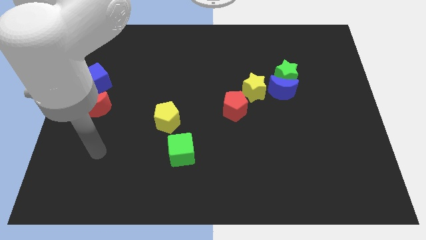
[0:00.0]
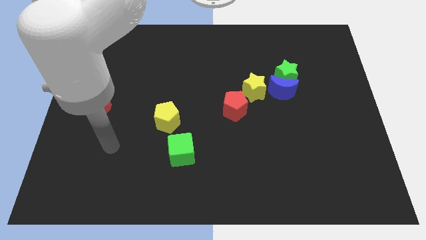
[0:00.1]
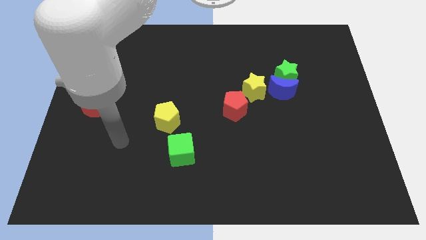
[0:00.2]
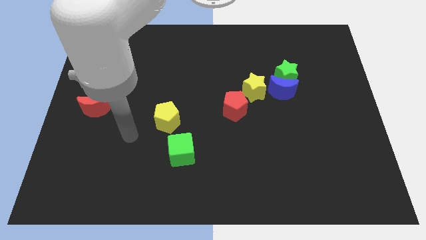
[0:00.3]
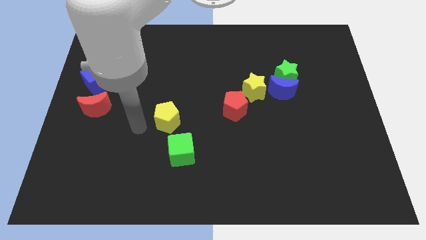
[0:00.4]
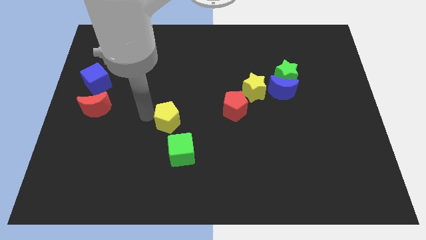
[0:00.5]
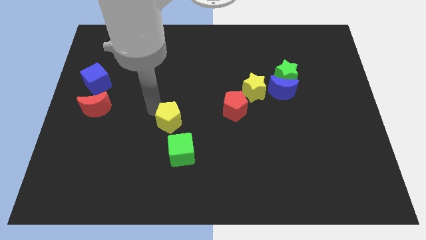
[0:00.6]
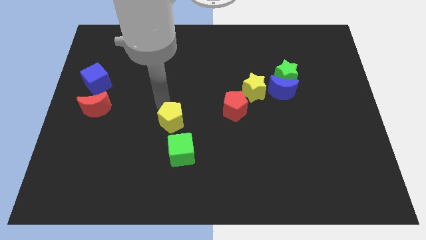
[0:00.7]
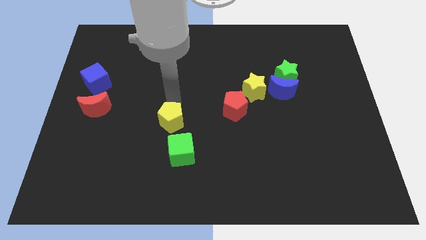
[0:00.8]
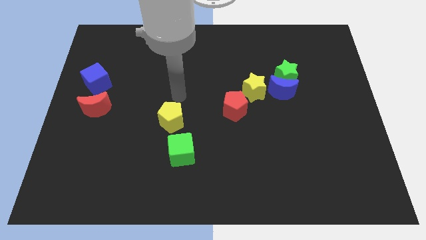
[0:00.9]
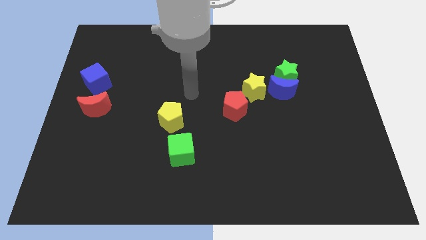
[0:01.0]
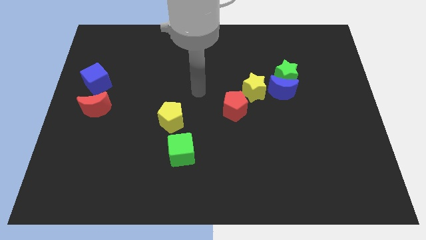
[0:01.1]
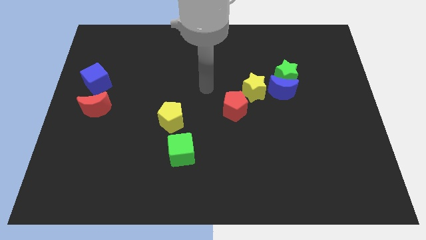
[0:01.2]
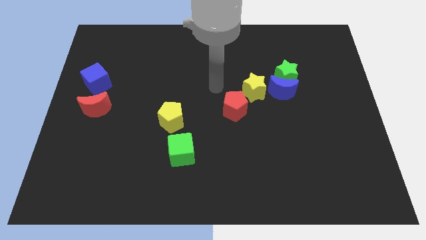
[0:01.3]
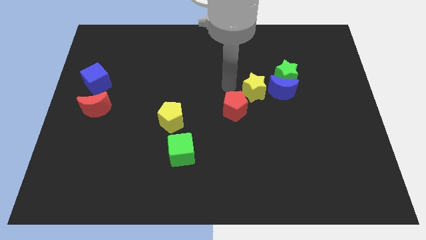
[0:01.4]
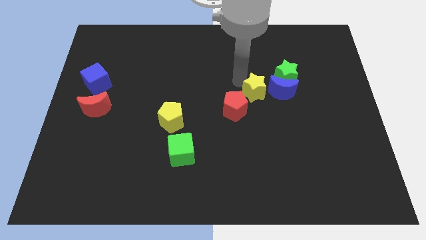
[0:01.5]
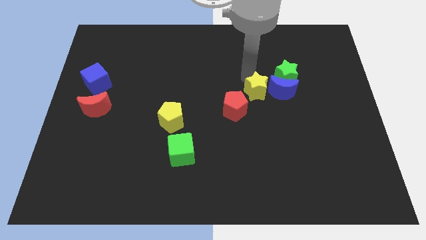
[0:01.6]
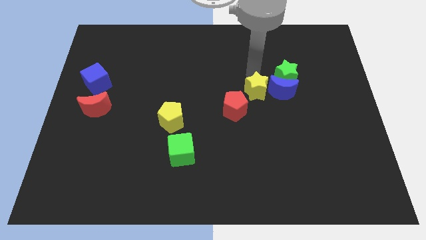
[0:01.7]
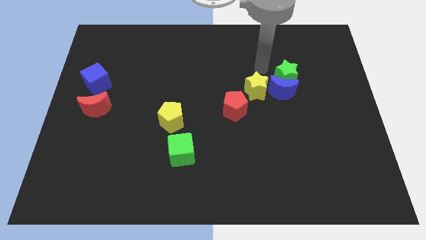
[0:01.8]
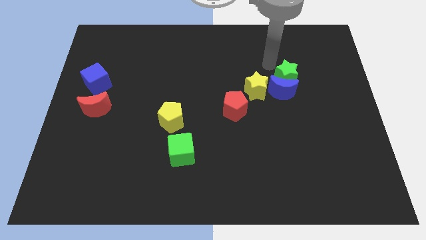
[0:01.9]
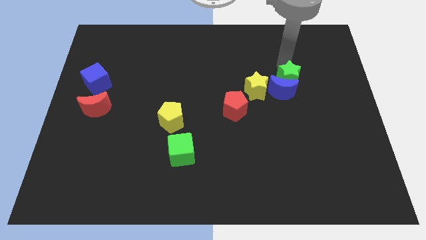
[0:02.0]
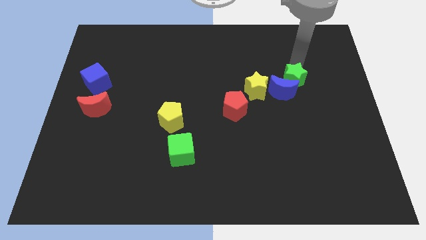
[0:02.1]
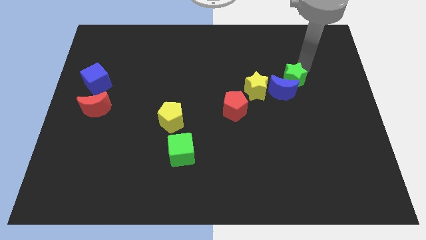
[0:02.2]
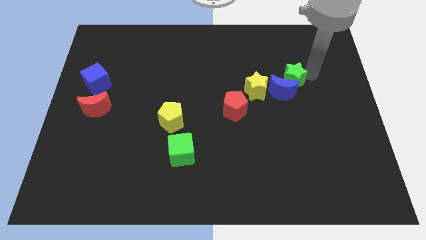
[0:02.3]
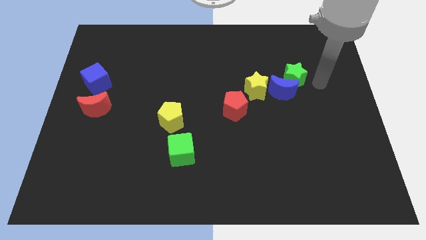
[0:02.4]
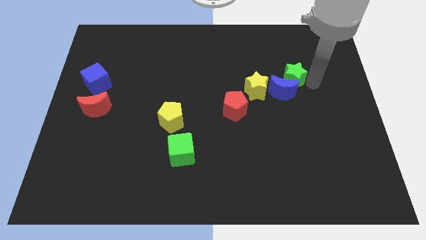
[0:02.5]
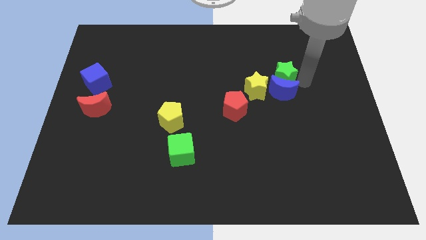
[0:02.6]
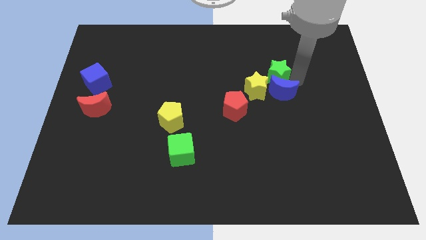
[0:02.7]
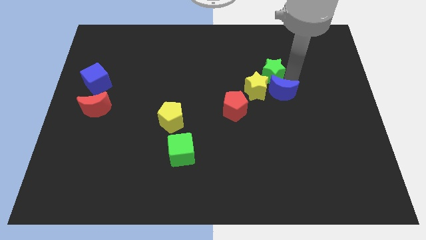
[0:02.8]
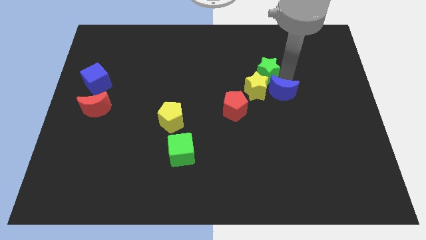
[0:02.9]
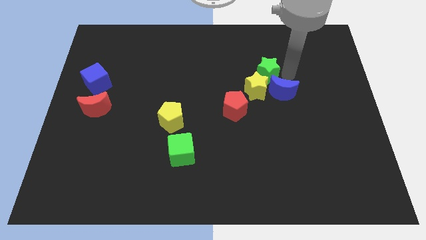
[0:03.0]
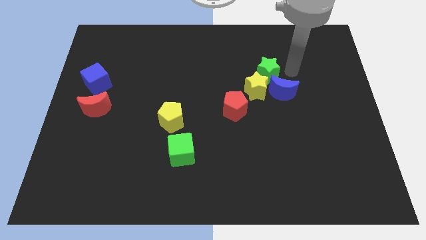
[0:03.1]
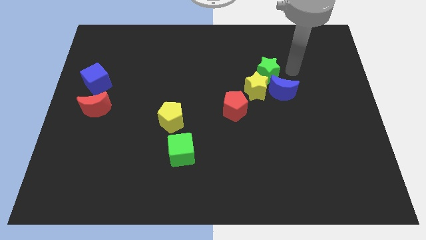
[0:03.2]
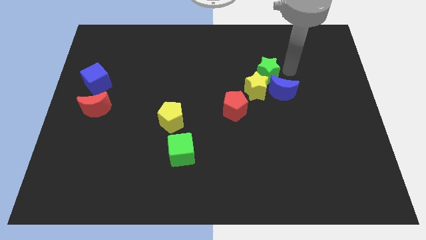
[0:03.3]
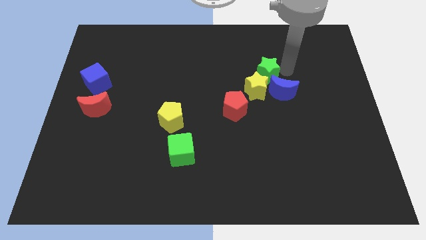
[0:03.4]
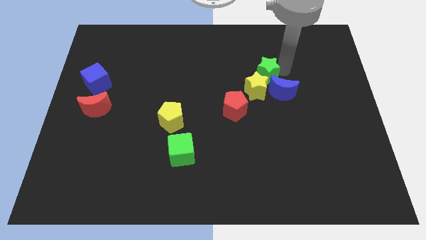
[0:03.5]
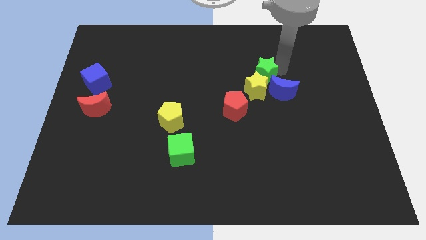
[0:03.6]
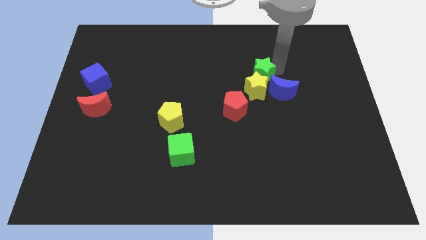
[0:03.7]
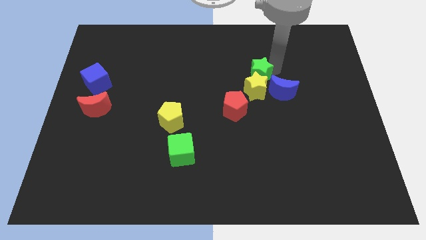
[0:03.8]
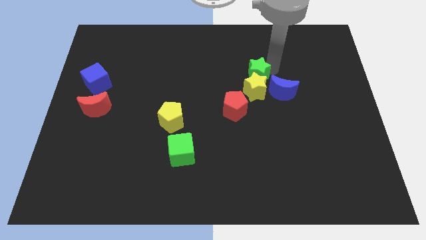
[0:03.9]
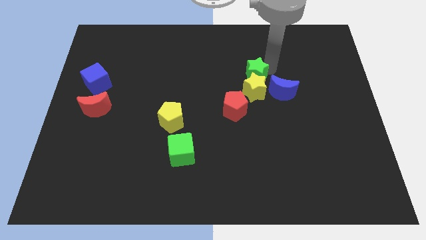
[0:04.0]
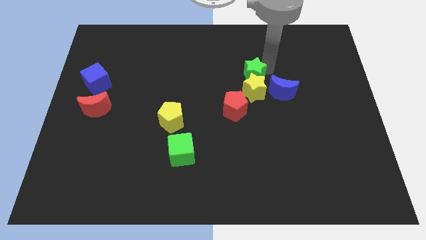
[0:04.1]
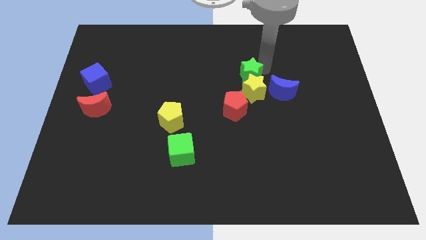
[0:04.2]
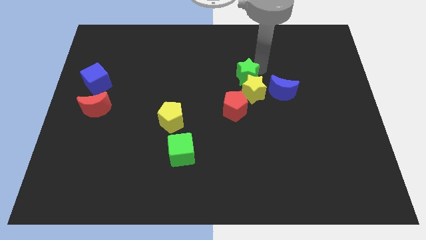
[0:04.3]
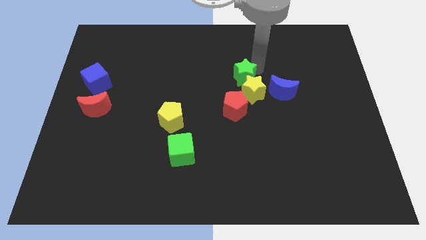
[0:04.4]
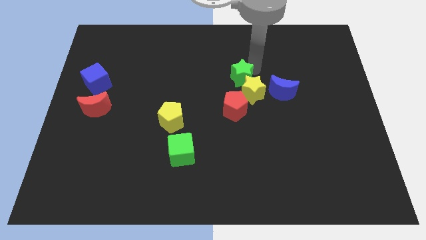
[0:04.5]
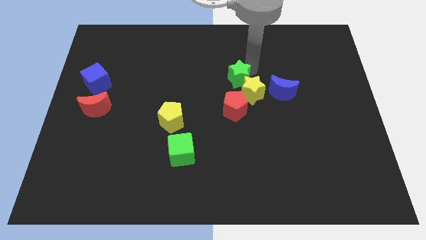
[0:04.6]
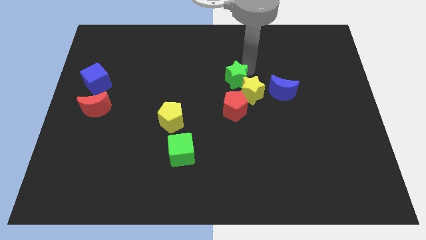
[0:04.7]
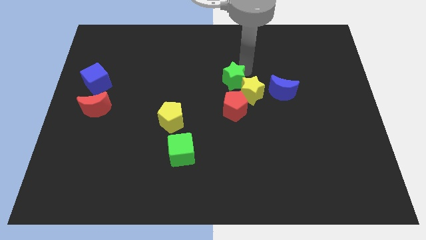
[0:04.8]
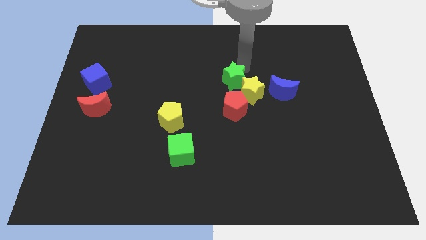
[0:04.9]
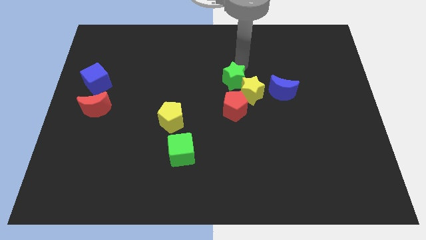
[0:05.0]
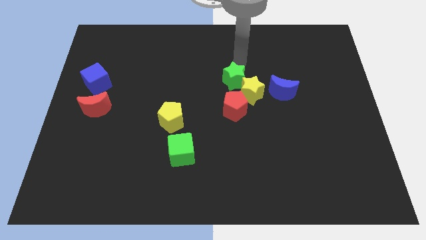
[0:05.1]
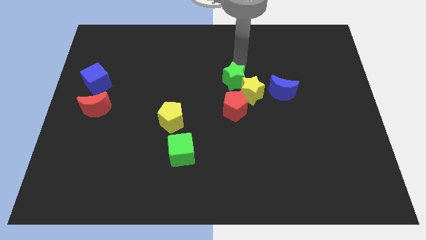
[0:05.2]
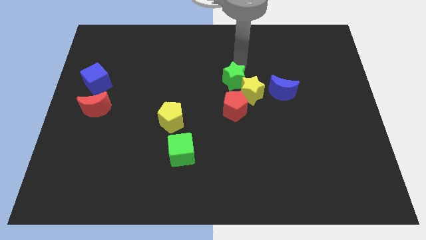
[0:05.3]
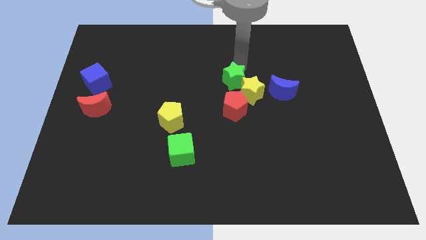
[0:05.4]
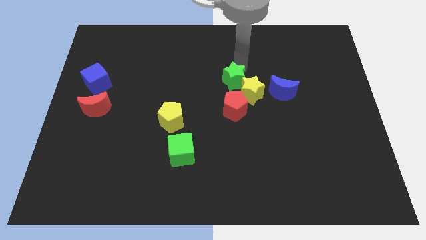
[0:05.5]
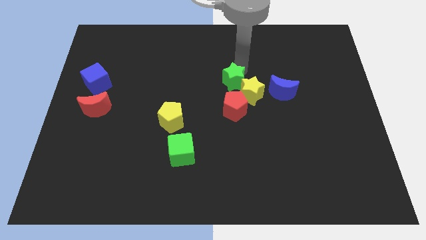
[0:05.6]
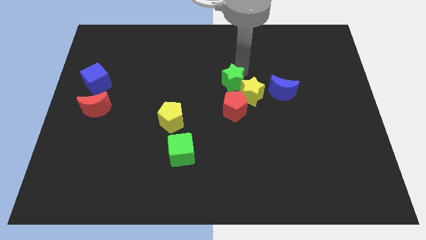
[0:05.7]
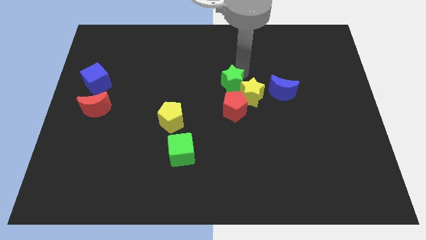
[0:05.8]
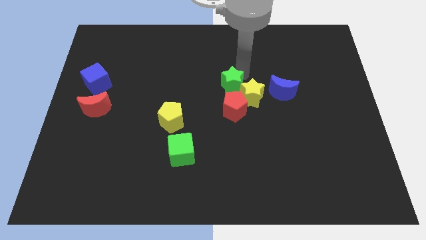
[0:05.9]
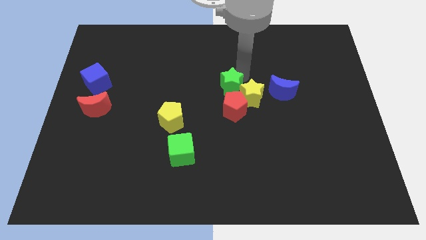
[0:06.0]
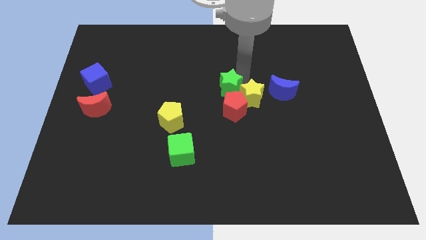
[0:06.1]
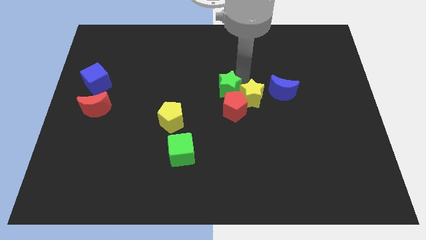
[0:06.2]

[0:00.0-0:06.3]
push the green star next to the red pentagon

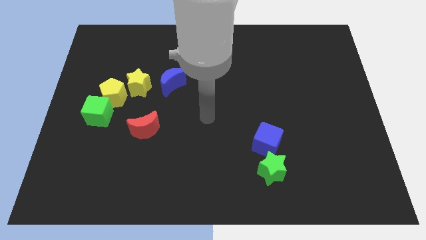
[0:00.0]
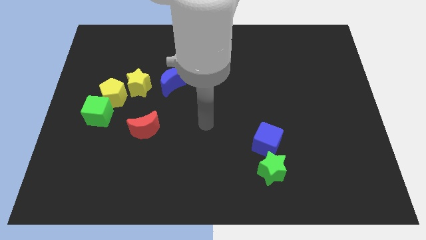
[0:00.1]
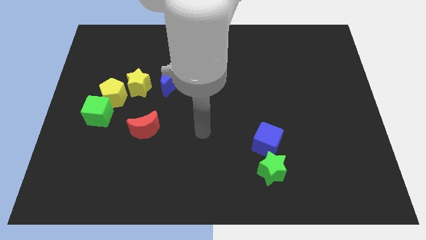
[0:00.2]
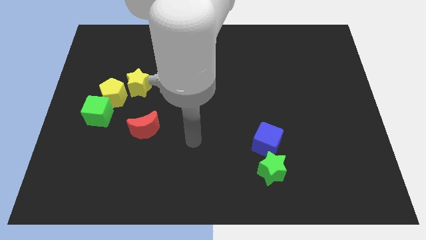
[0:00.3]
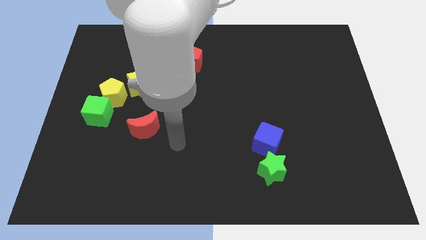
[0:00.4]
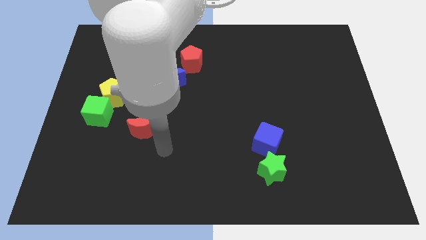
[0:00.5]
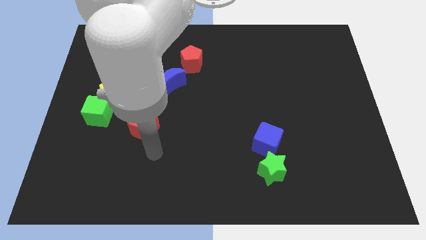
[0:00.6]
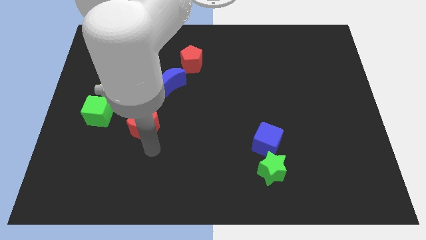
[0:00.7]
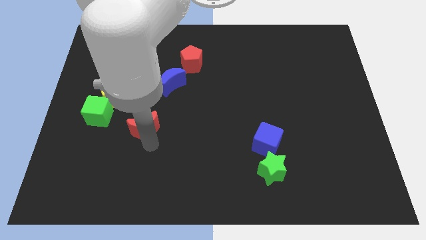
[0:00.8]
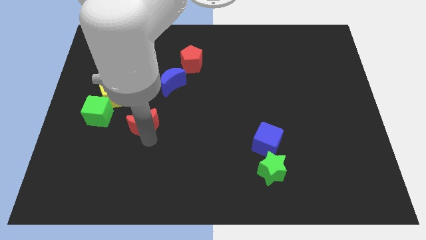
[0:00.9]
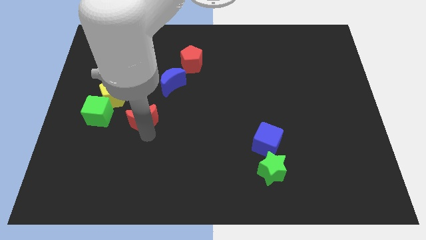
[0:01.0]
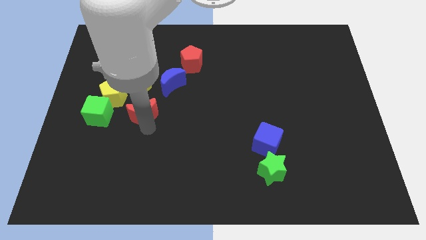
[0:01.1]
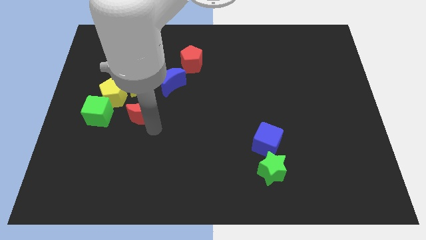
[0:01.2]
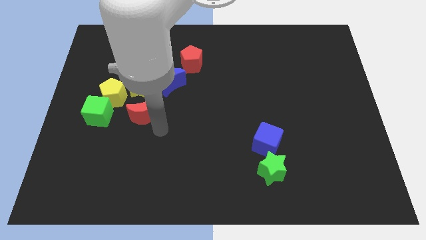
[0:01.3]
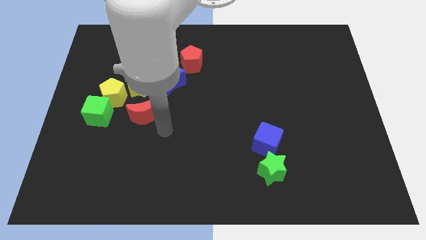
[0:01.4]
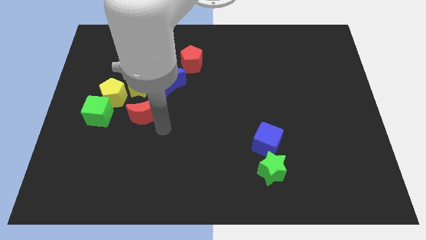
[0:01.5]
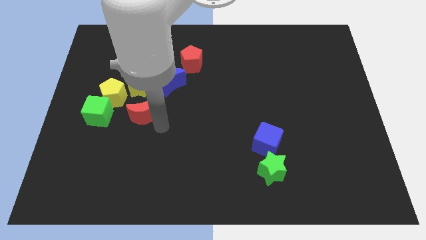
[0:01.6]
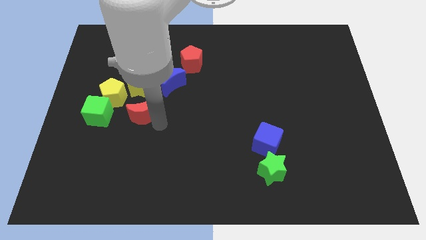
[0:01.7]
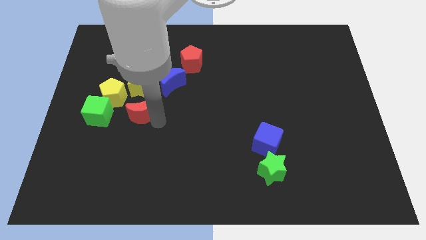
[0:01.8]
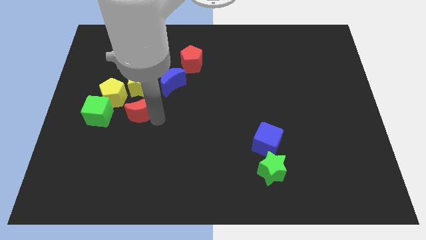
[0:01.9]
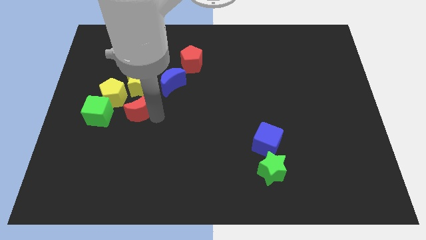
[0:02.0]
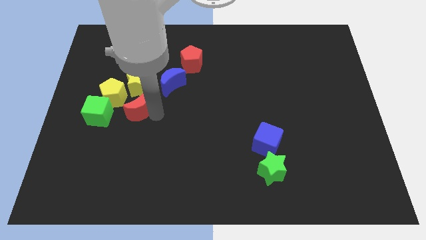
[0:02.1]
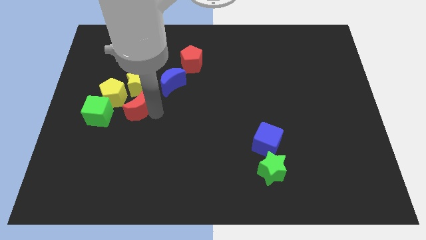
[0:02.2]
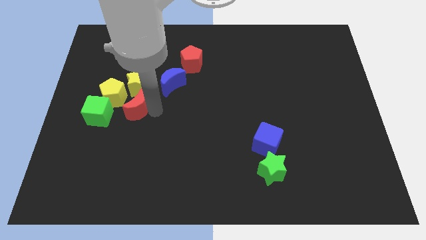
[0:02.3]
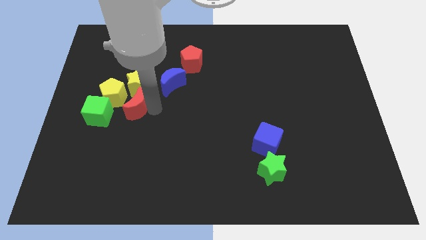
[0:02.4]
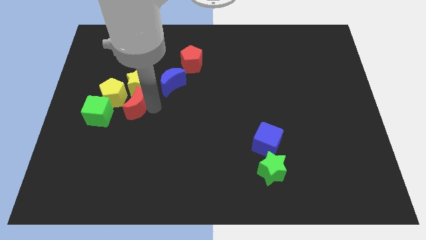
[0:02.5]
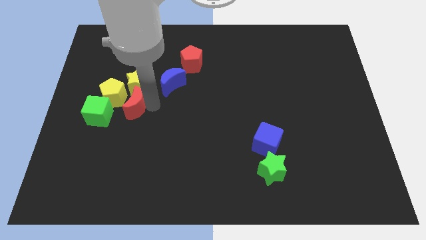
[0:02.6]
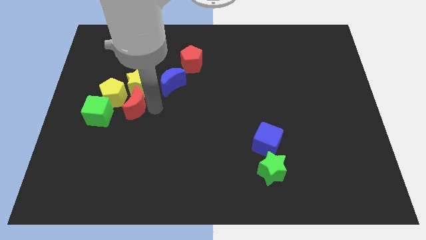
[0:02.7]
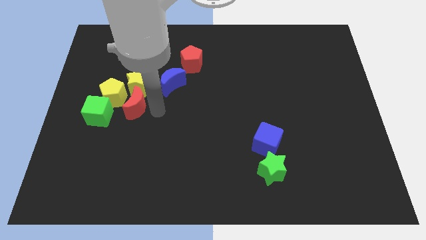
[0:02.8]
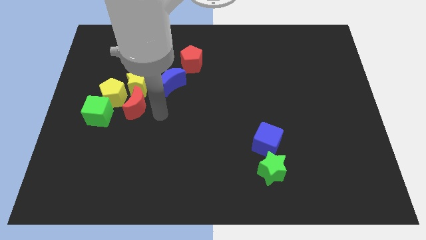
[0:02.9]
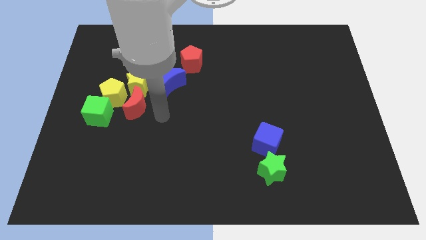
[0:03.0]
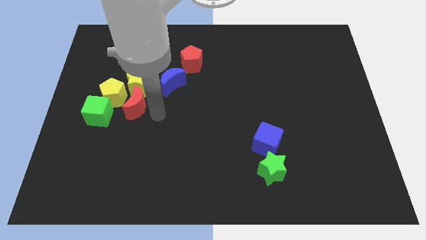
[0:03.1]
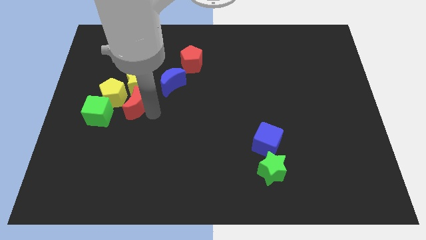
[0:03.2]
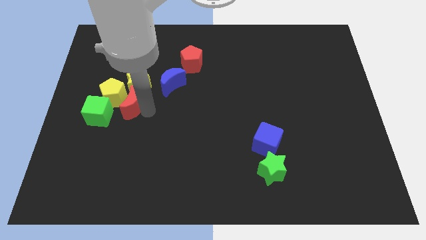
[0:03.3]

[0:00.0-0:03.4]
move the red moon close to the yellow pentagon
